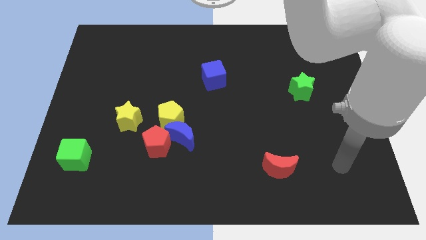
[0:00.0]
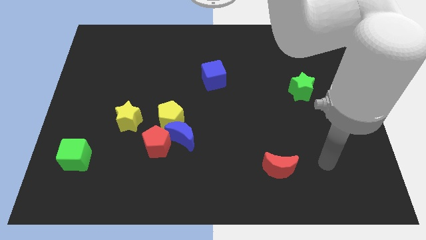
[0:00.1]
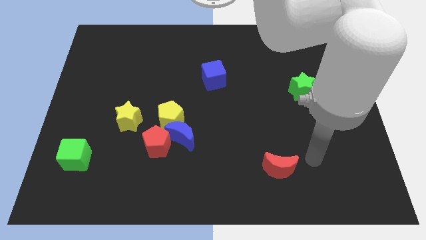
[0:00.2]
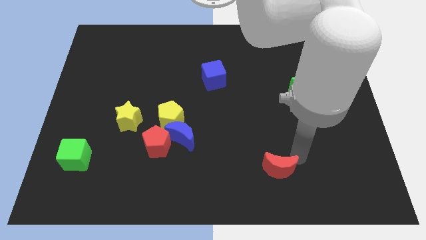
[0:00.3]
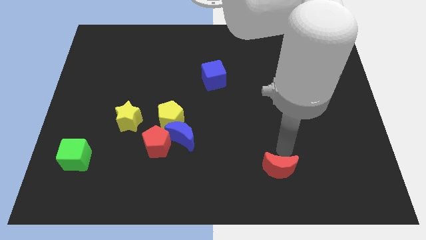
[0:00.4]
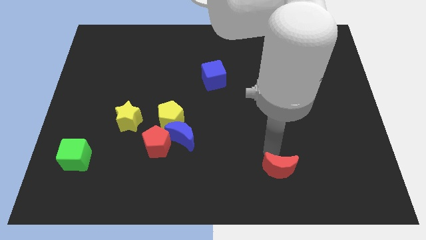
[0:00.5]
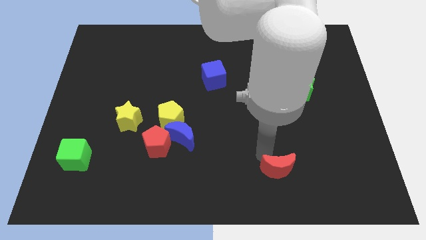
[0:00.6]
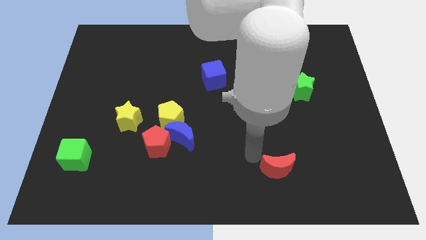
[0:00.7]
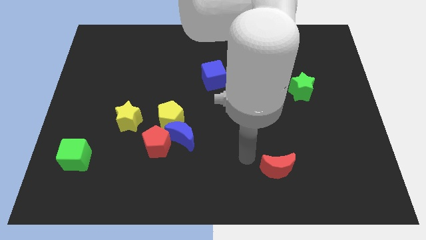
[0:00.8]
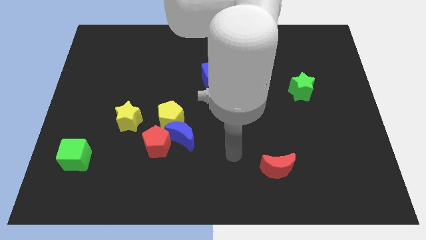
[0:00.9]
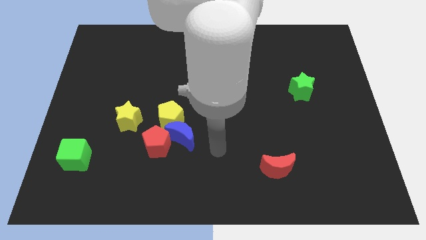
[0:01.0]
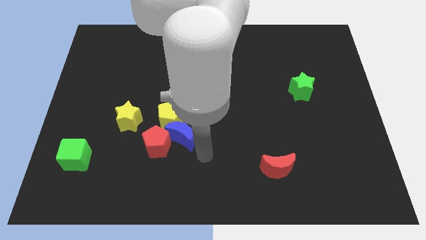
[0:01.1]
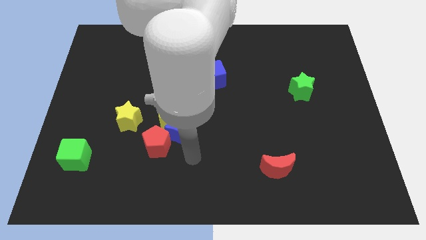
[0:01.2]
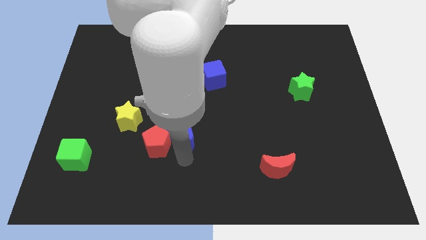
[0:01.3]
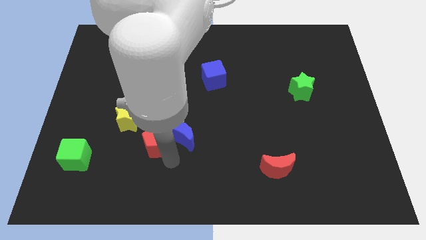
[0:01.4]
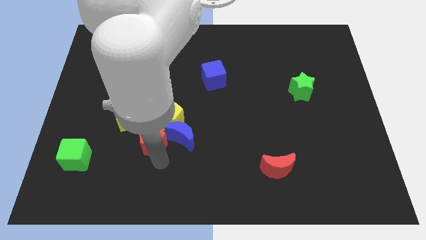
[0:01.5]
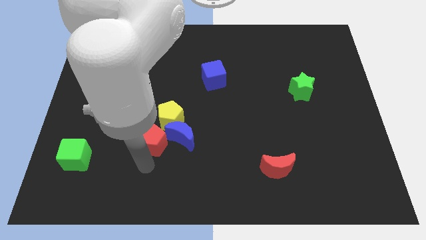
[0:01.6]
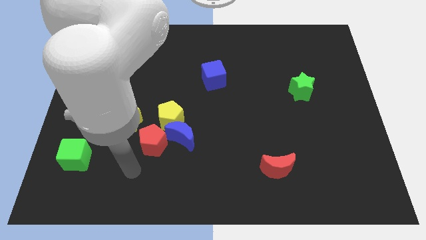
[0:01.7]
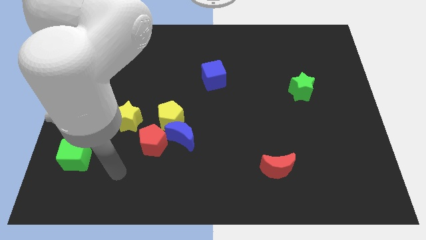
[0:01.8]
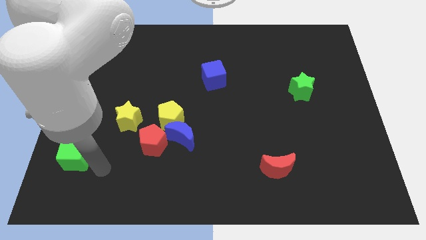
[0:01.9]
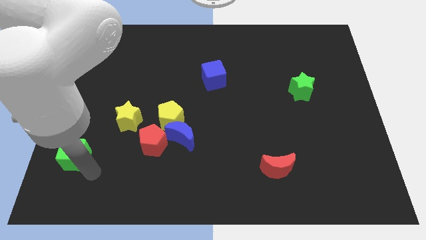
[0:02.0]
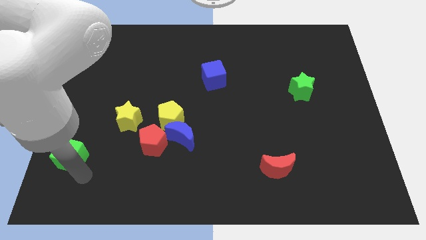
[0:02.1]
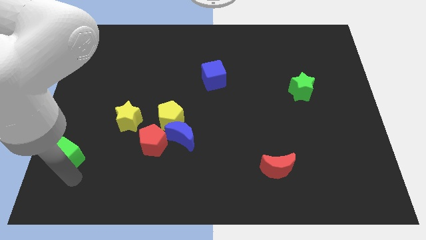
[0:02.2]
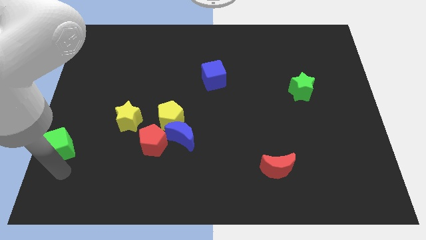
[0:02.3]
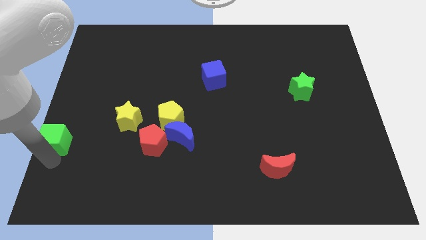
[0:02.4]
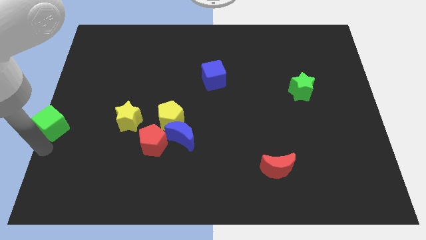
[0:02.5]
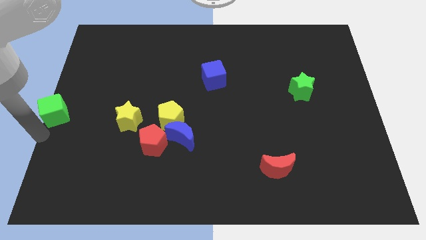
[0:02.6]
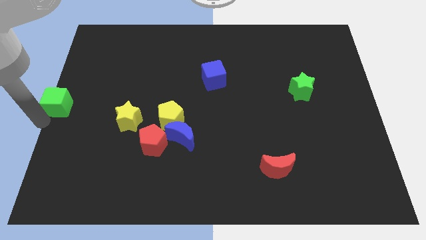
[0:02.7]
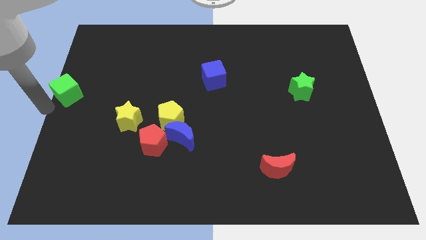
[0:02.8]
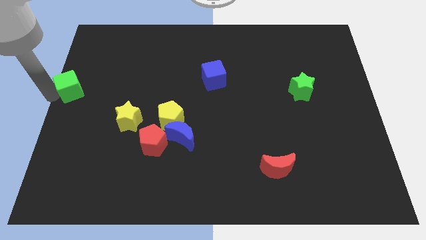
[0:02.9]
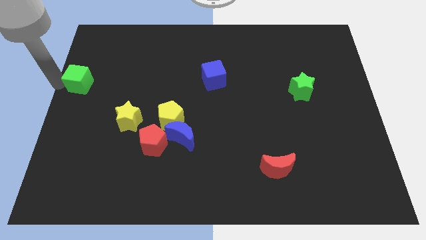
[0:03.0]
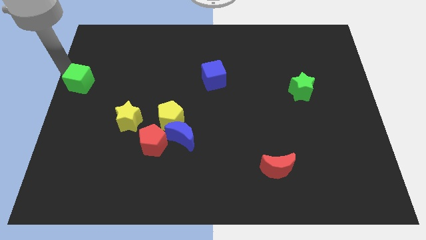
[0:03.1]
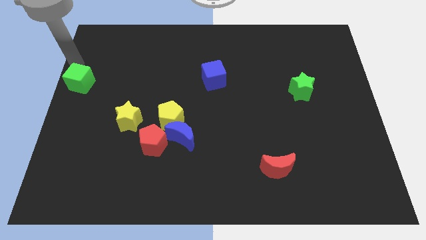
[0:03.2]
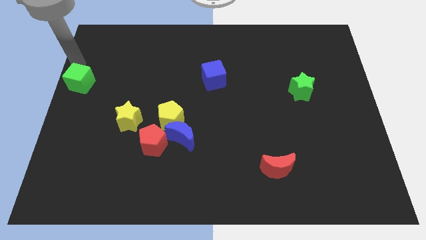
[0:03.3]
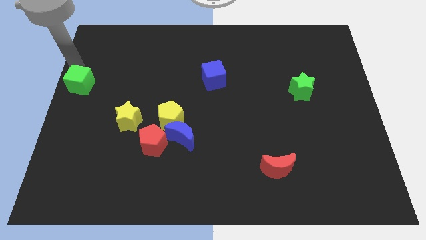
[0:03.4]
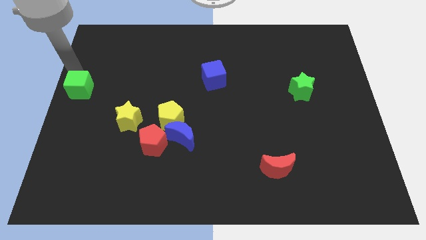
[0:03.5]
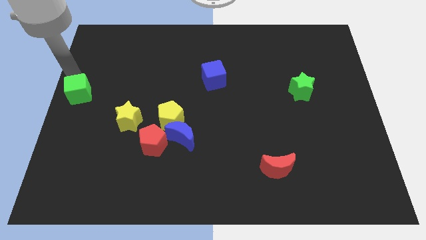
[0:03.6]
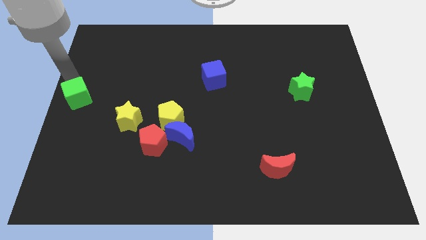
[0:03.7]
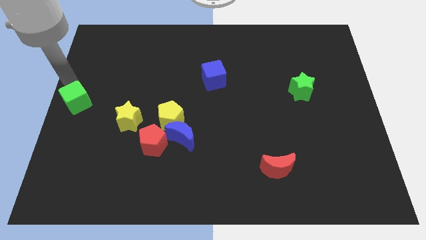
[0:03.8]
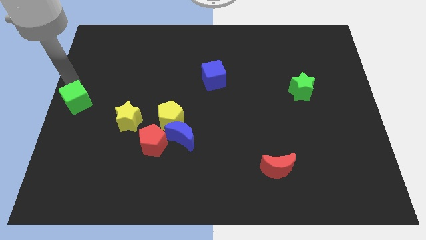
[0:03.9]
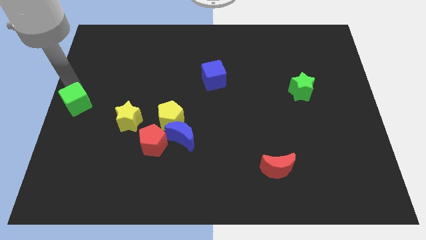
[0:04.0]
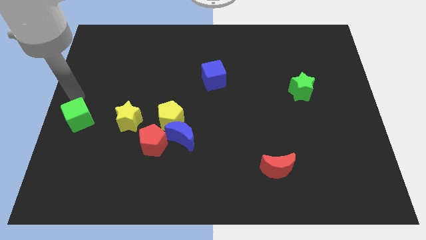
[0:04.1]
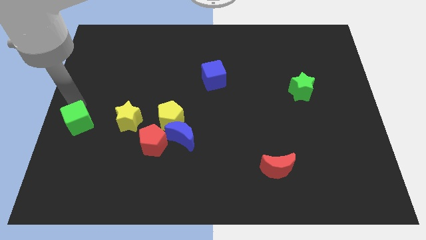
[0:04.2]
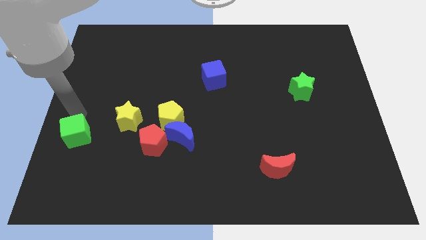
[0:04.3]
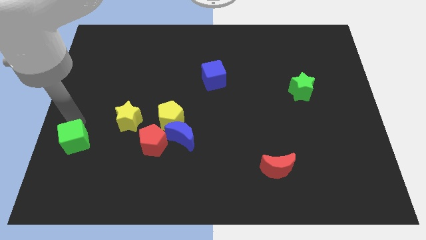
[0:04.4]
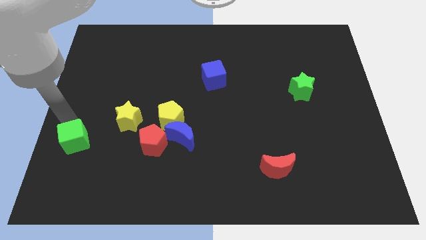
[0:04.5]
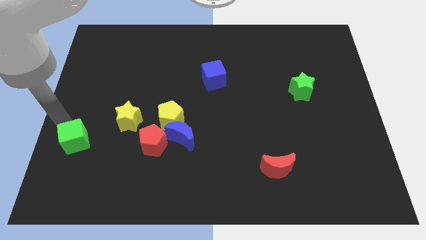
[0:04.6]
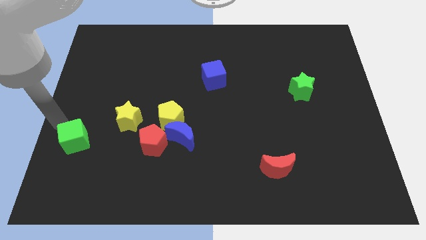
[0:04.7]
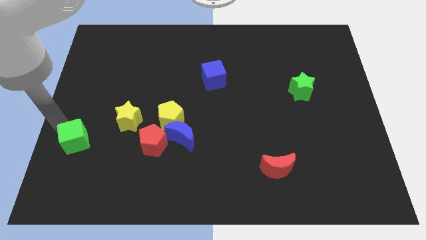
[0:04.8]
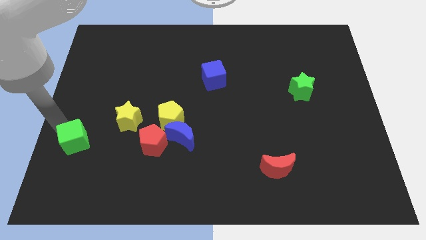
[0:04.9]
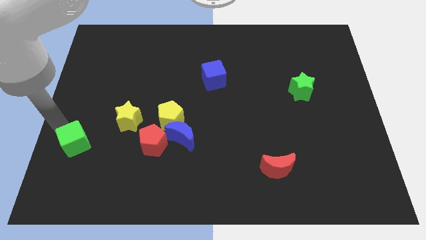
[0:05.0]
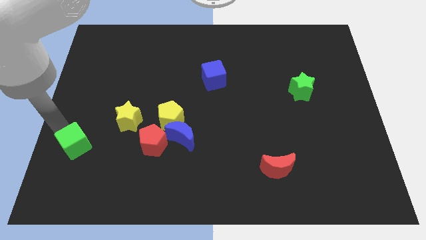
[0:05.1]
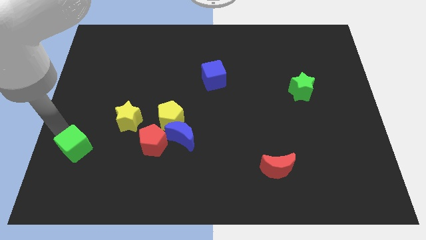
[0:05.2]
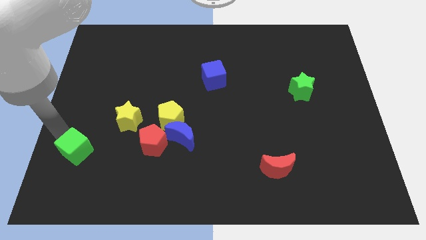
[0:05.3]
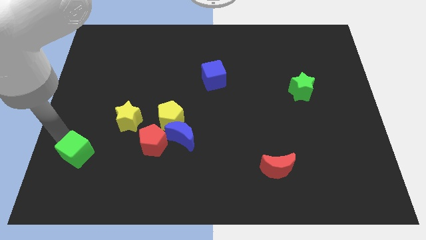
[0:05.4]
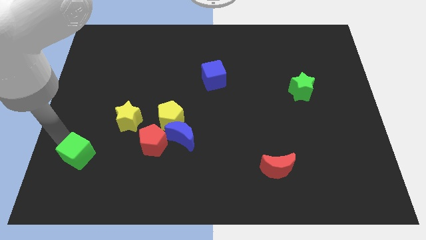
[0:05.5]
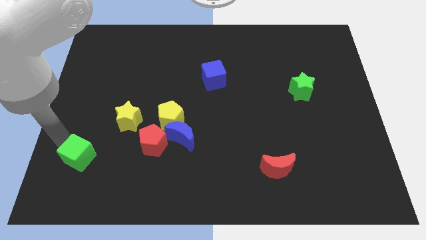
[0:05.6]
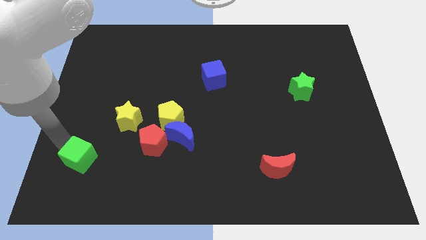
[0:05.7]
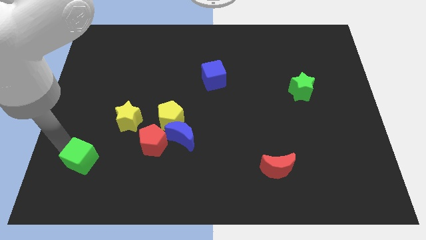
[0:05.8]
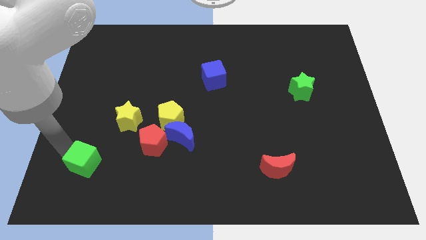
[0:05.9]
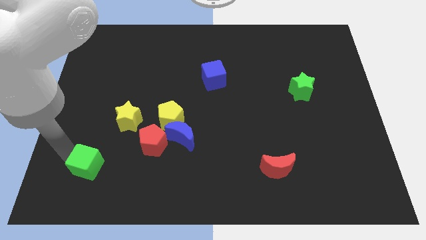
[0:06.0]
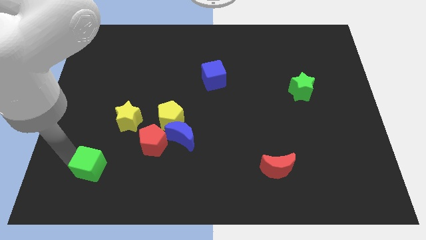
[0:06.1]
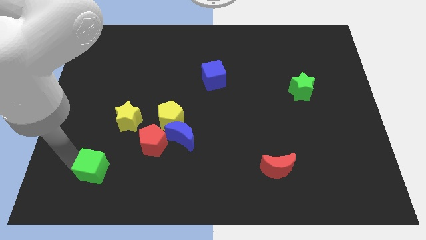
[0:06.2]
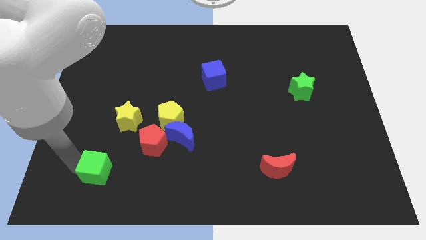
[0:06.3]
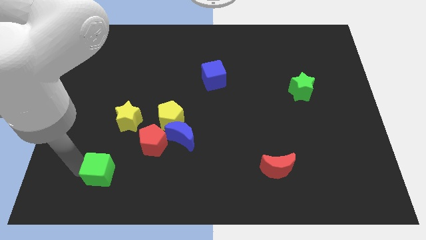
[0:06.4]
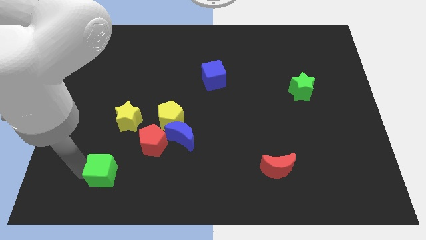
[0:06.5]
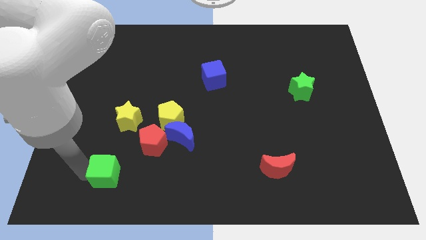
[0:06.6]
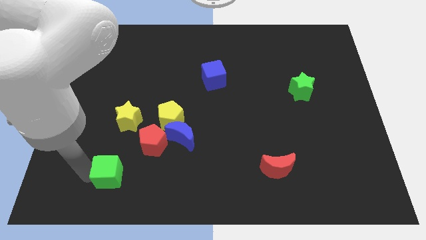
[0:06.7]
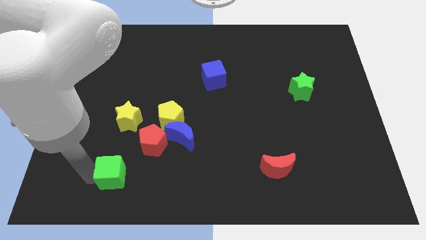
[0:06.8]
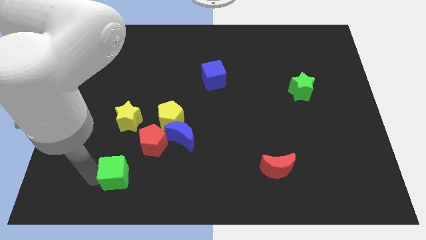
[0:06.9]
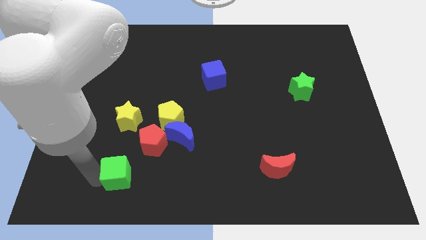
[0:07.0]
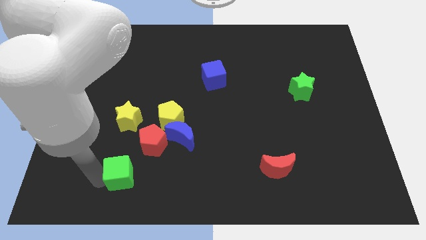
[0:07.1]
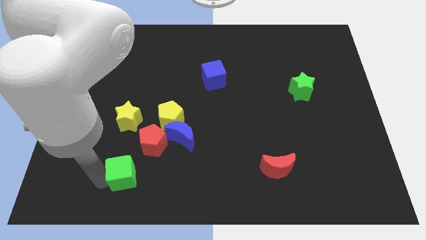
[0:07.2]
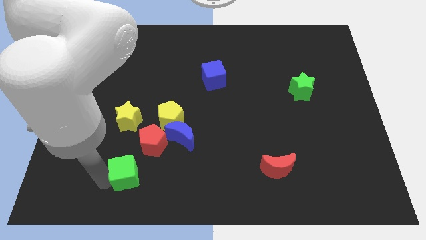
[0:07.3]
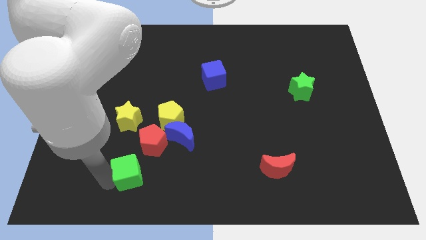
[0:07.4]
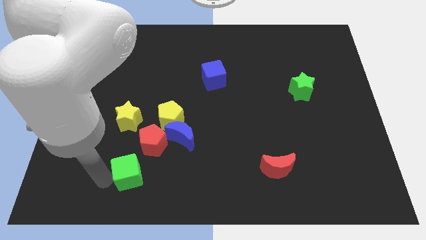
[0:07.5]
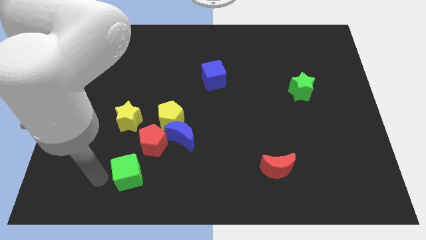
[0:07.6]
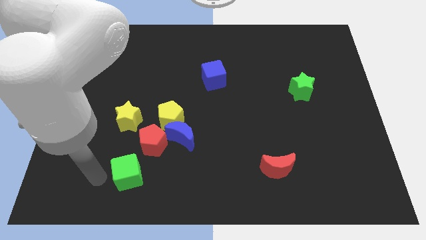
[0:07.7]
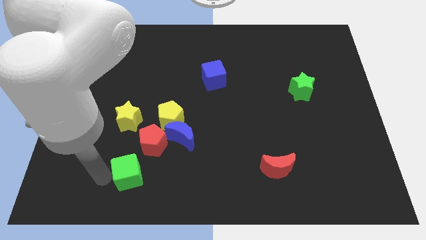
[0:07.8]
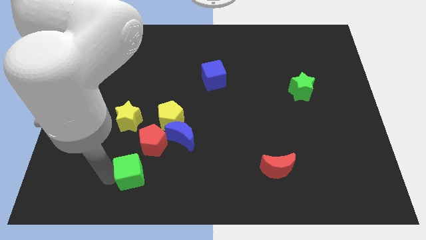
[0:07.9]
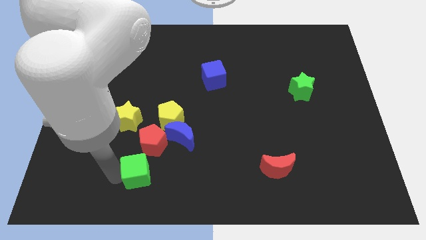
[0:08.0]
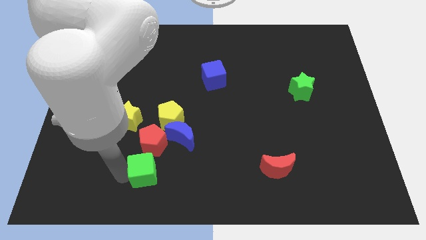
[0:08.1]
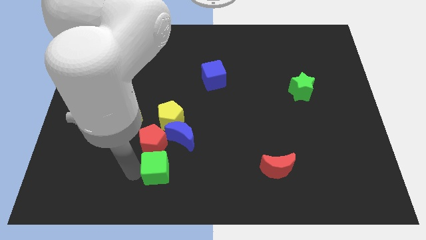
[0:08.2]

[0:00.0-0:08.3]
put the green cube to the bottom side of the blue moon
